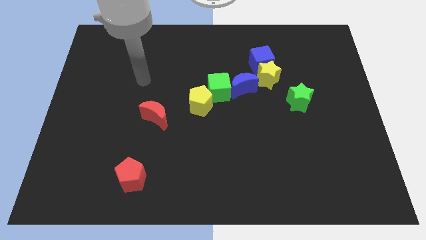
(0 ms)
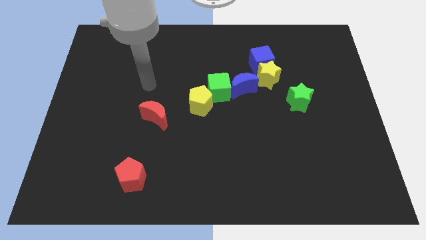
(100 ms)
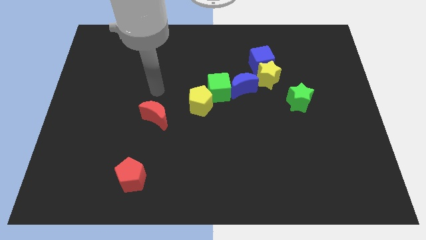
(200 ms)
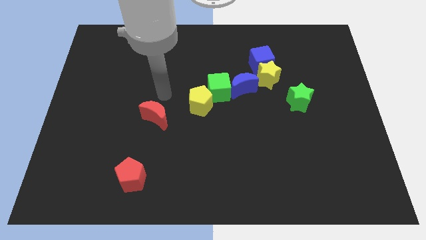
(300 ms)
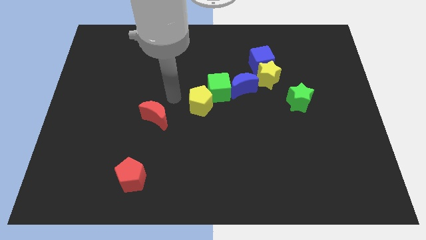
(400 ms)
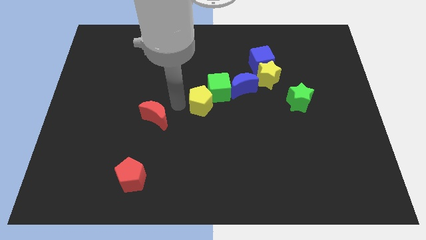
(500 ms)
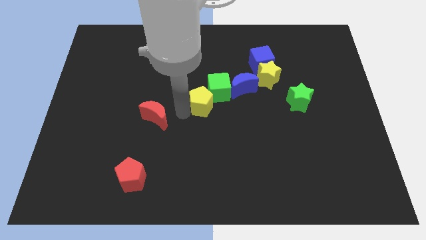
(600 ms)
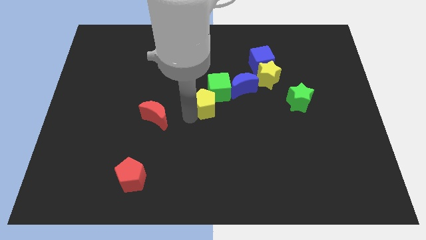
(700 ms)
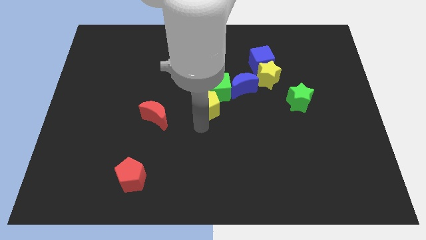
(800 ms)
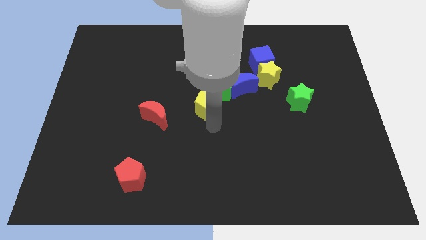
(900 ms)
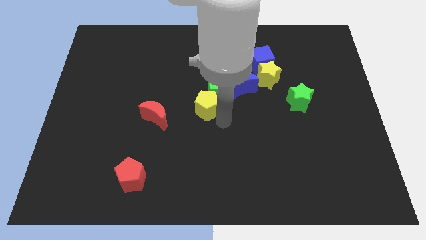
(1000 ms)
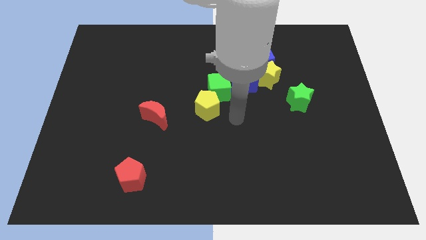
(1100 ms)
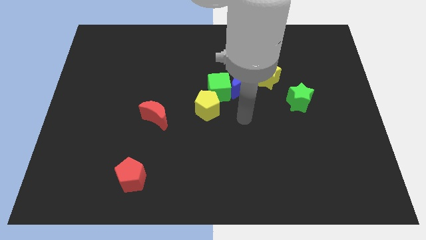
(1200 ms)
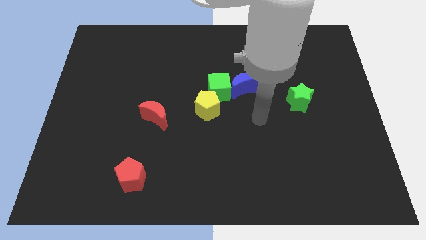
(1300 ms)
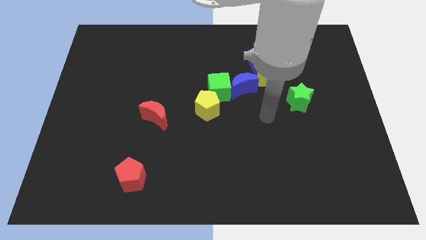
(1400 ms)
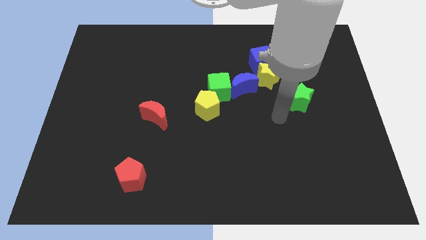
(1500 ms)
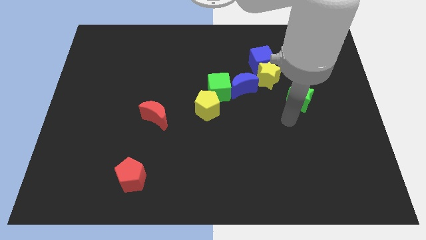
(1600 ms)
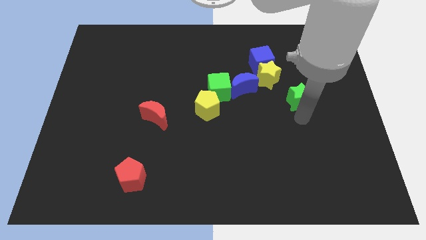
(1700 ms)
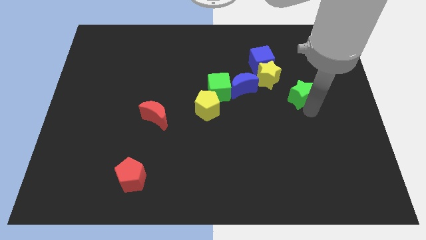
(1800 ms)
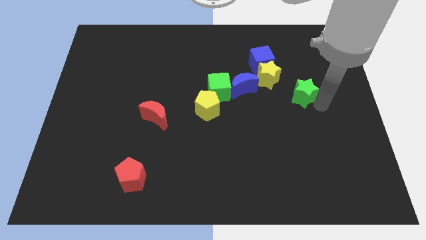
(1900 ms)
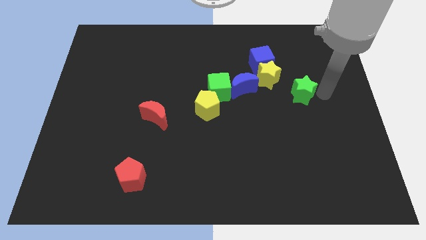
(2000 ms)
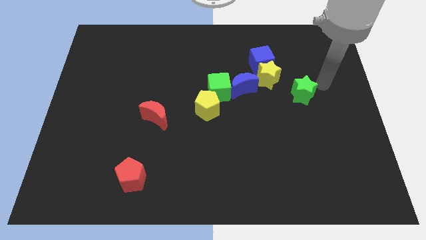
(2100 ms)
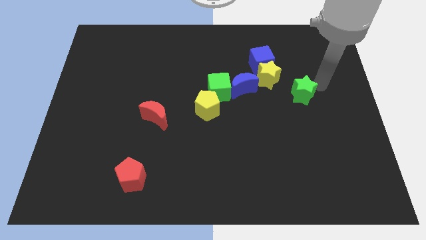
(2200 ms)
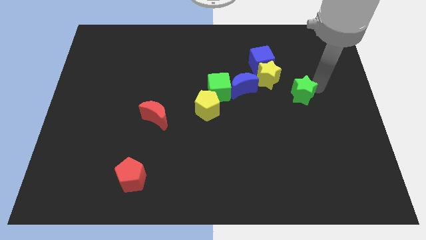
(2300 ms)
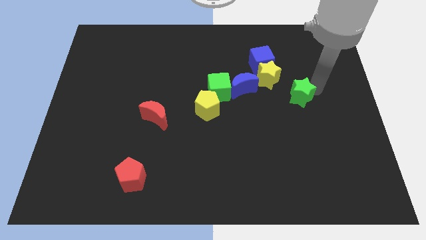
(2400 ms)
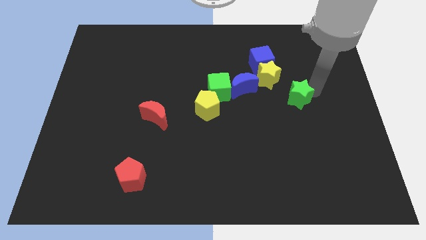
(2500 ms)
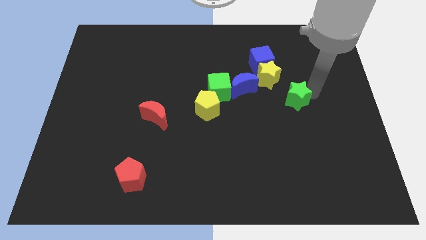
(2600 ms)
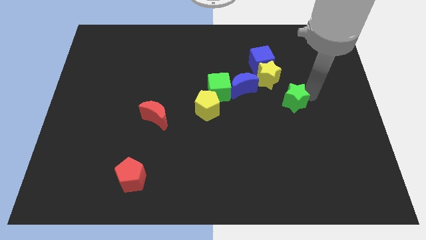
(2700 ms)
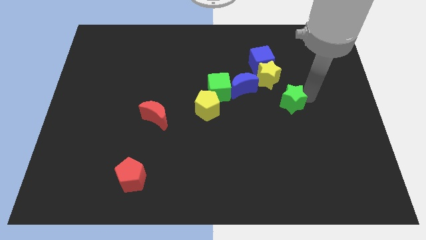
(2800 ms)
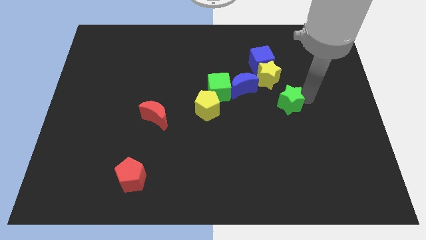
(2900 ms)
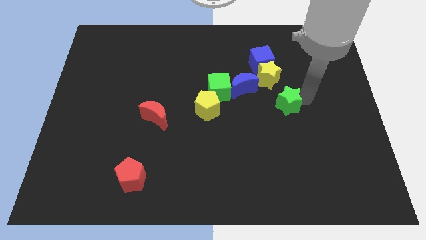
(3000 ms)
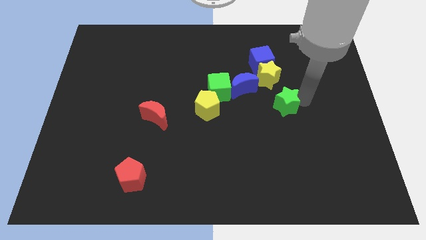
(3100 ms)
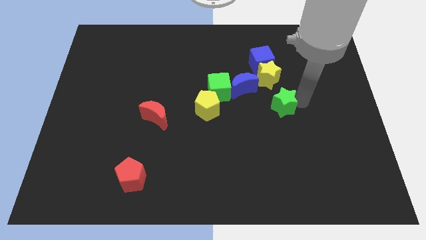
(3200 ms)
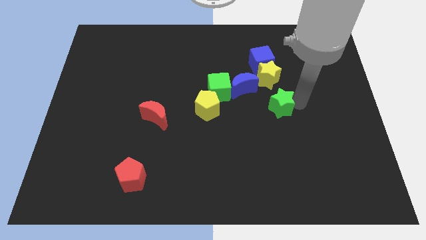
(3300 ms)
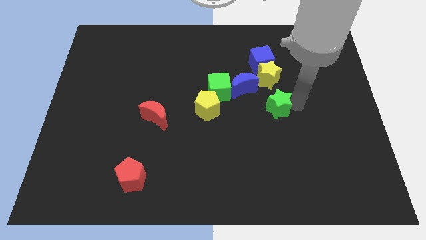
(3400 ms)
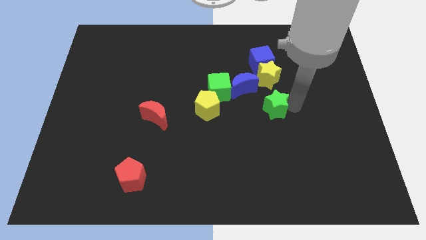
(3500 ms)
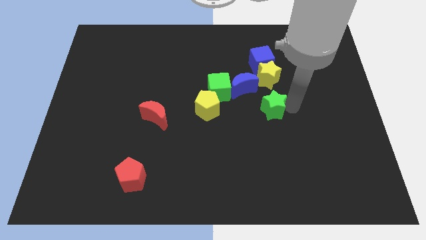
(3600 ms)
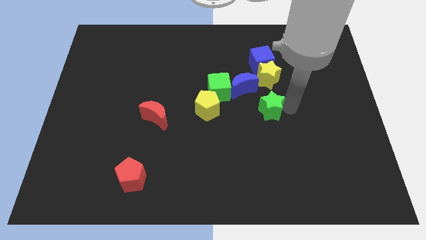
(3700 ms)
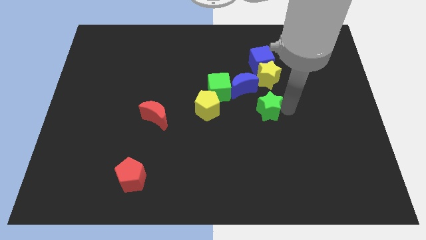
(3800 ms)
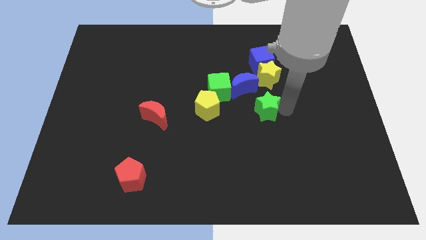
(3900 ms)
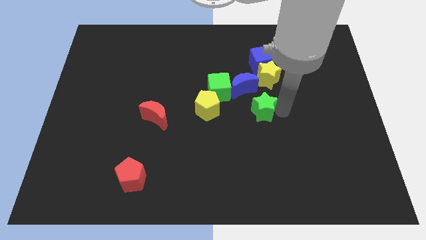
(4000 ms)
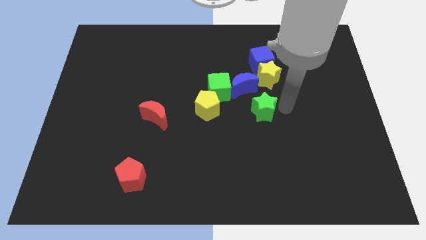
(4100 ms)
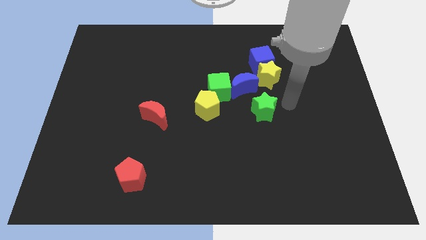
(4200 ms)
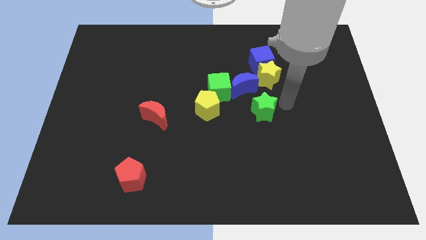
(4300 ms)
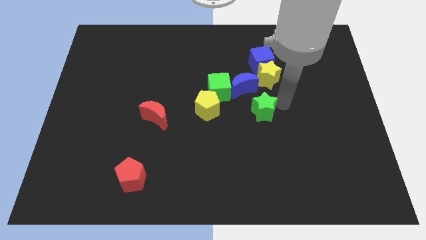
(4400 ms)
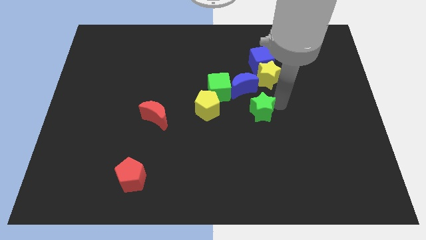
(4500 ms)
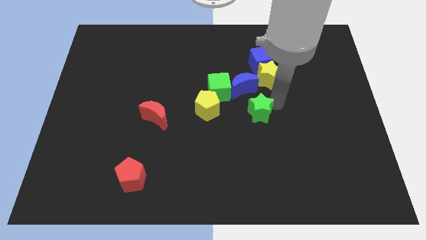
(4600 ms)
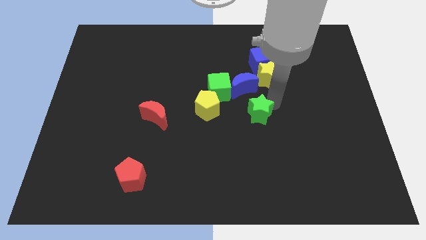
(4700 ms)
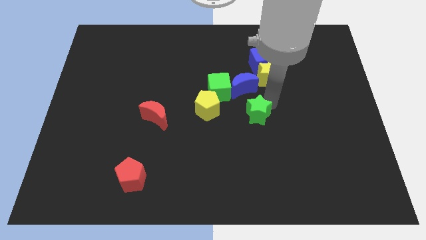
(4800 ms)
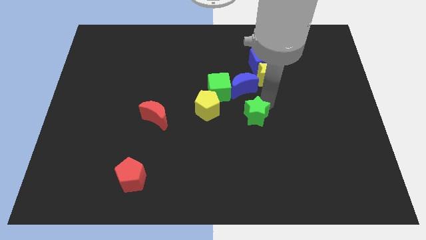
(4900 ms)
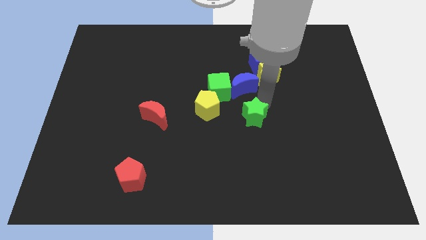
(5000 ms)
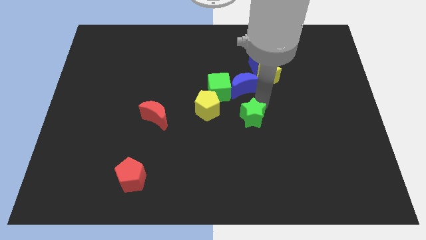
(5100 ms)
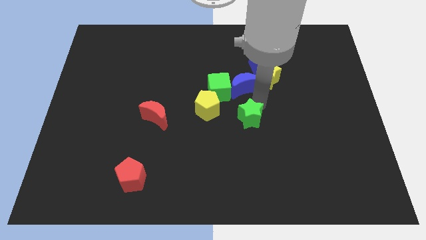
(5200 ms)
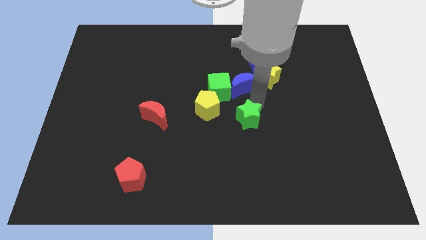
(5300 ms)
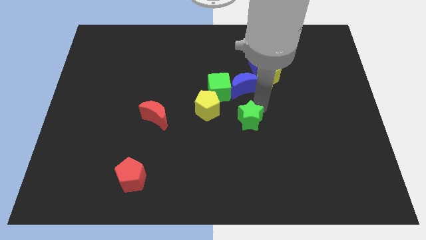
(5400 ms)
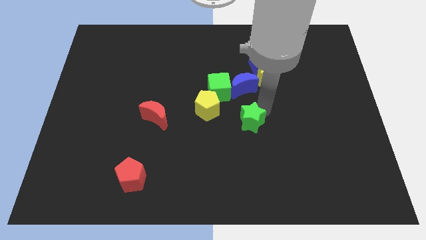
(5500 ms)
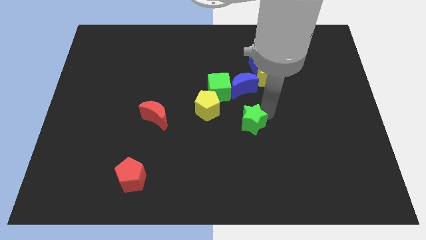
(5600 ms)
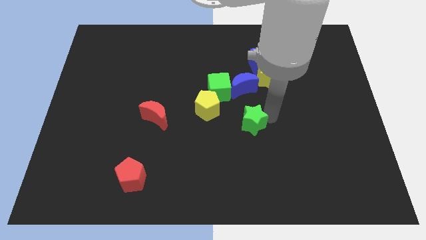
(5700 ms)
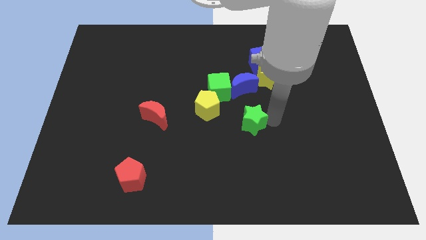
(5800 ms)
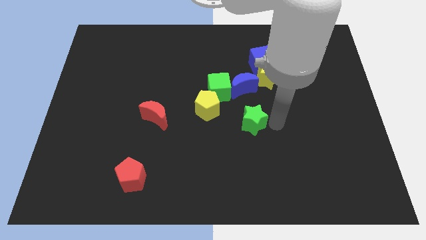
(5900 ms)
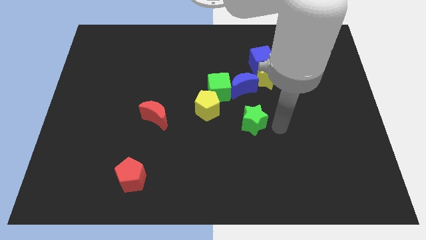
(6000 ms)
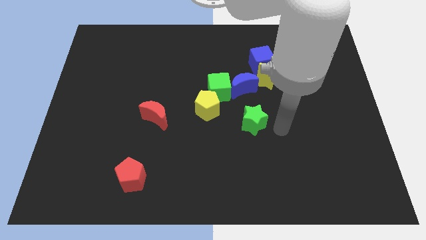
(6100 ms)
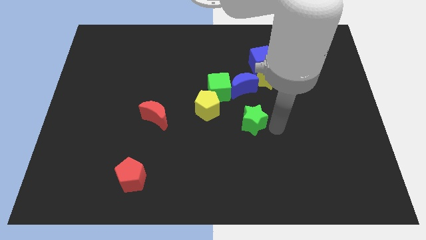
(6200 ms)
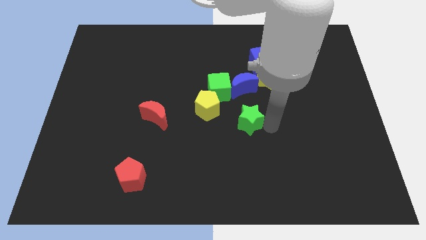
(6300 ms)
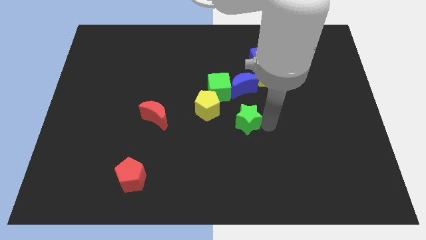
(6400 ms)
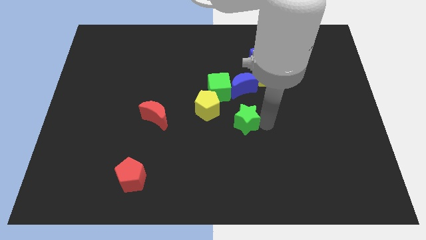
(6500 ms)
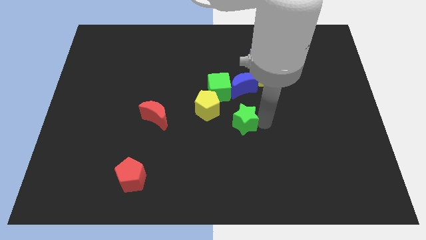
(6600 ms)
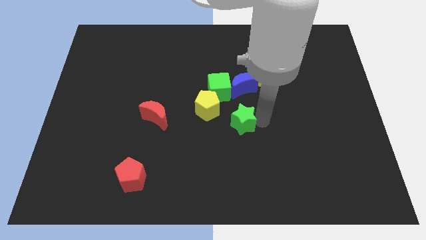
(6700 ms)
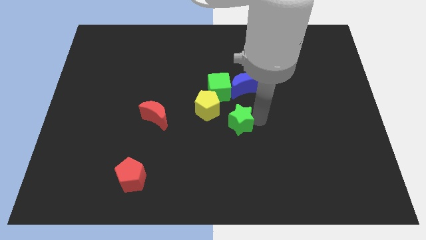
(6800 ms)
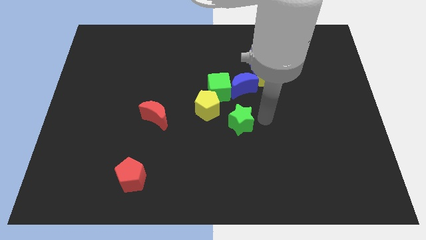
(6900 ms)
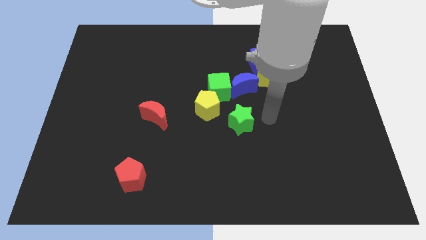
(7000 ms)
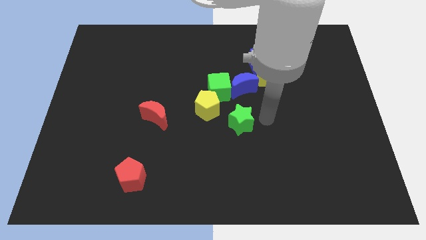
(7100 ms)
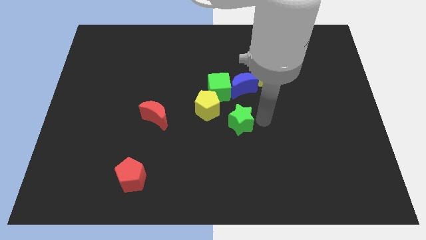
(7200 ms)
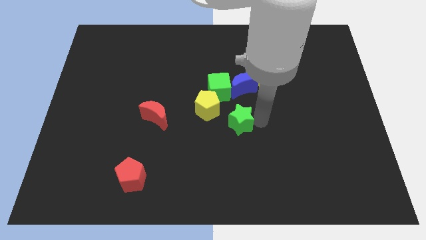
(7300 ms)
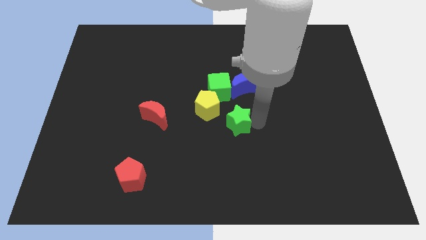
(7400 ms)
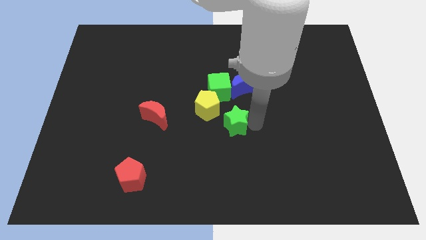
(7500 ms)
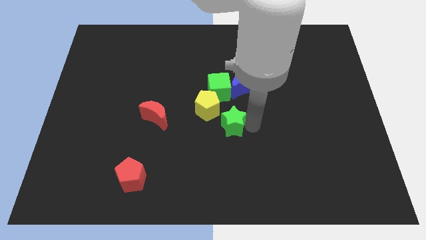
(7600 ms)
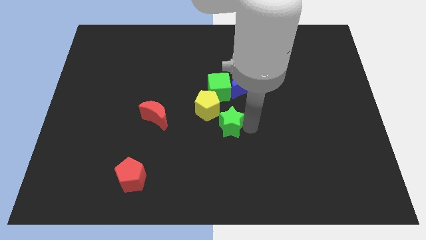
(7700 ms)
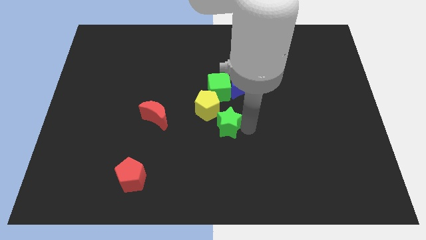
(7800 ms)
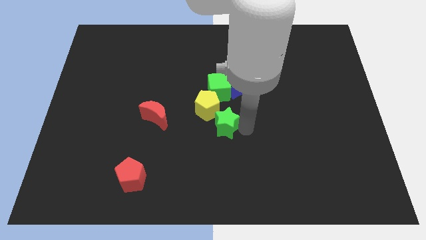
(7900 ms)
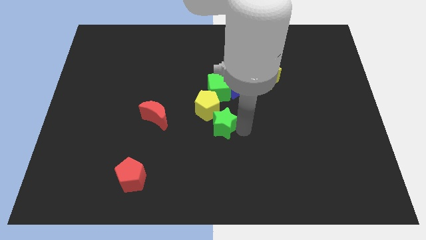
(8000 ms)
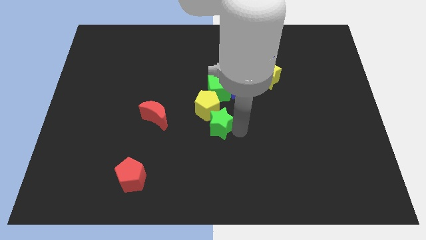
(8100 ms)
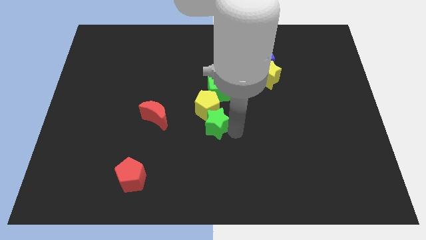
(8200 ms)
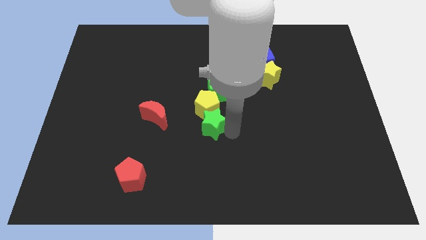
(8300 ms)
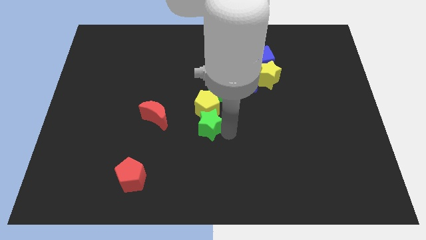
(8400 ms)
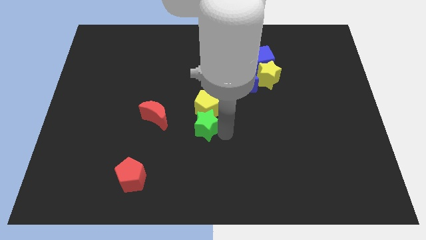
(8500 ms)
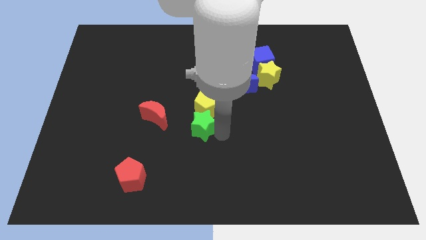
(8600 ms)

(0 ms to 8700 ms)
move the green star to the left
